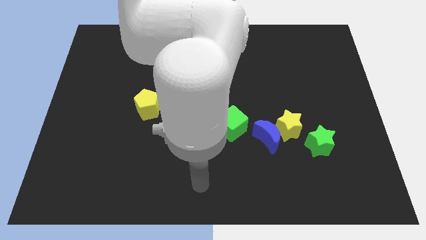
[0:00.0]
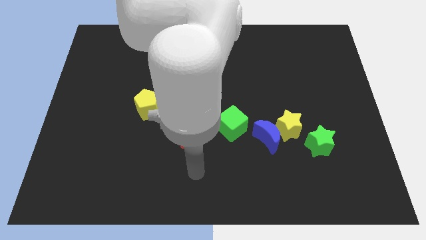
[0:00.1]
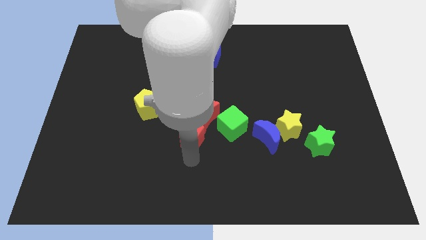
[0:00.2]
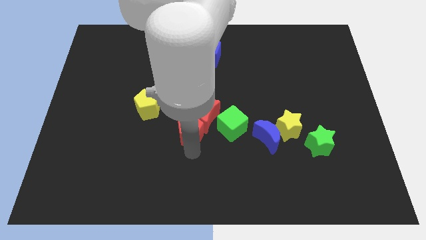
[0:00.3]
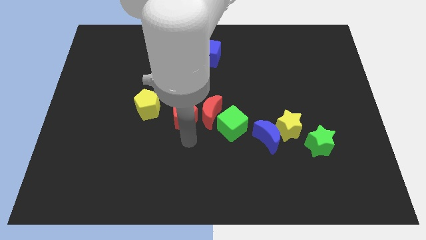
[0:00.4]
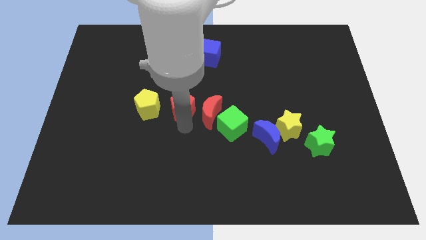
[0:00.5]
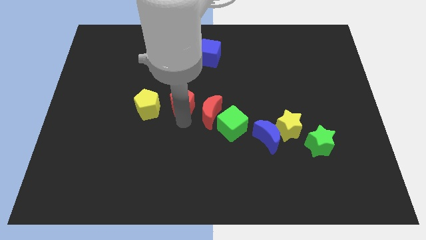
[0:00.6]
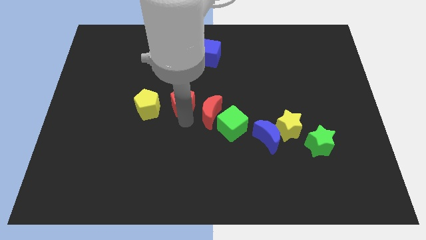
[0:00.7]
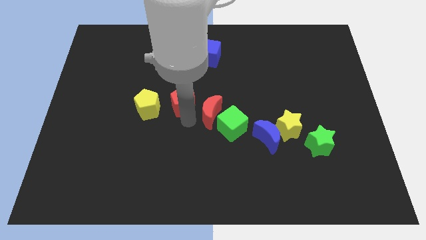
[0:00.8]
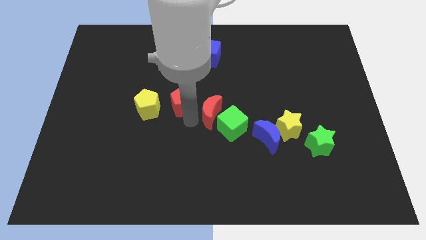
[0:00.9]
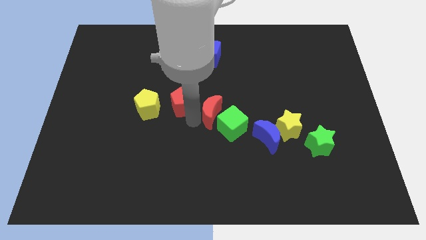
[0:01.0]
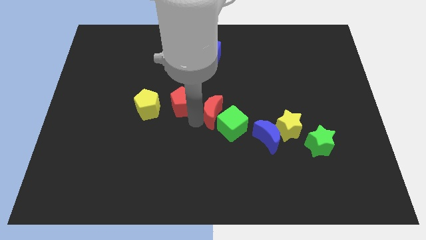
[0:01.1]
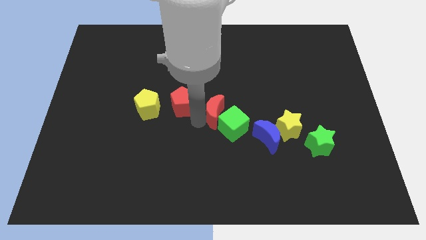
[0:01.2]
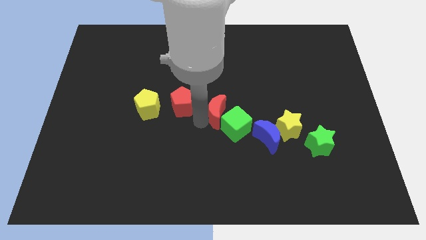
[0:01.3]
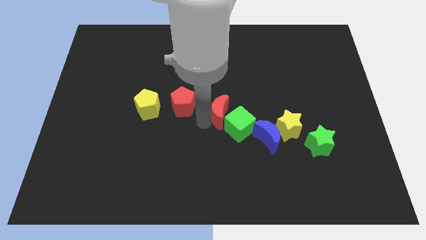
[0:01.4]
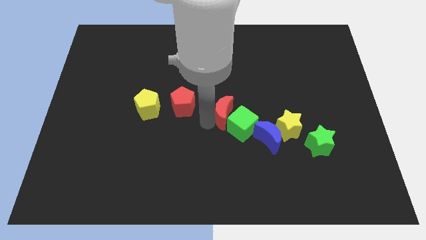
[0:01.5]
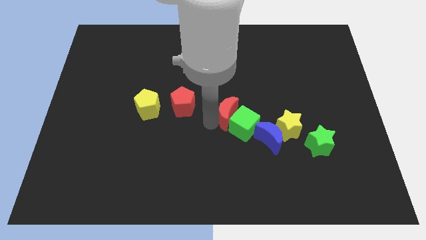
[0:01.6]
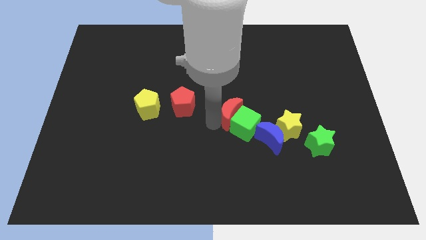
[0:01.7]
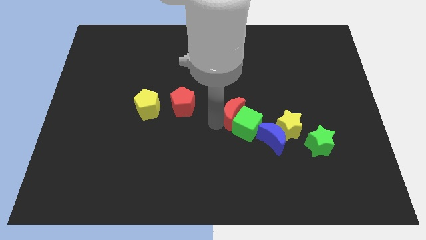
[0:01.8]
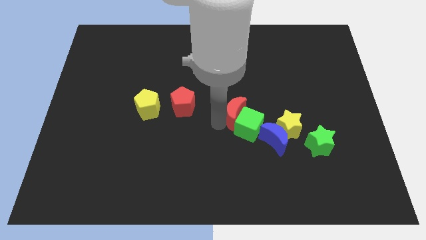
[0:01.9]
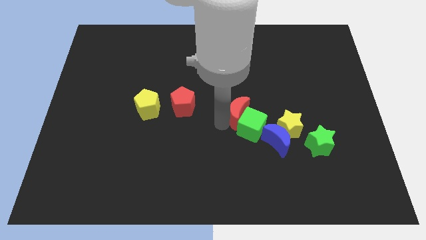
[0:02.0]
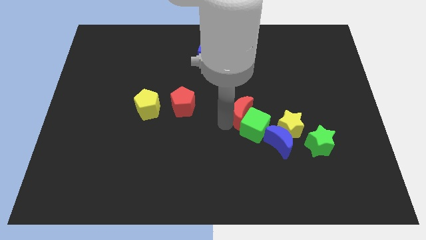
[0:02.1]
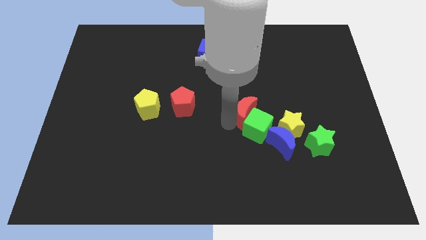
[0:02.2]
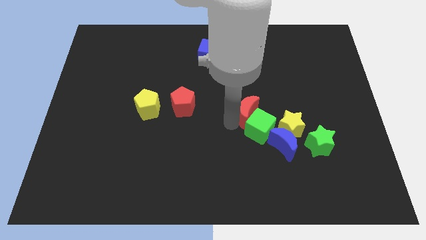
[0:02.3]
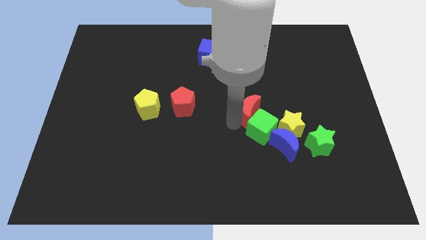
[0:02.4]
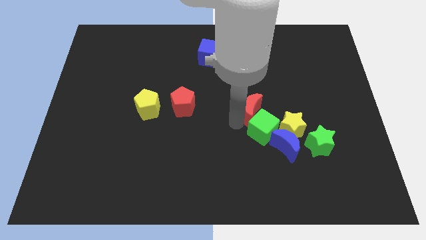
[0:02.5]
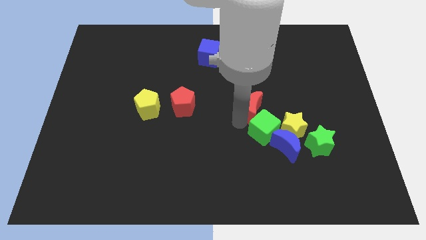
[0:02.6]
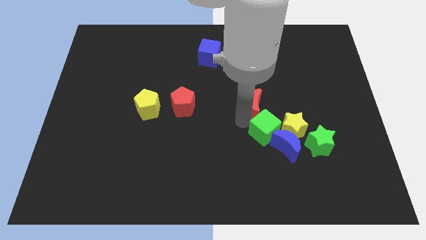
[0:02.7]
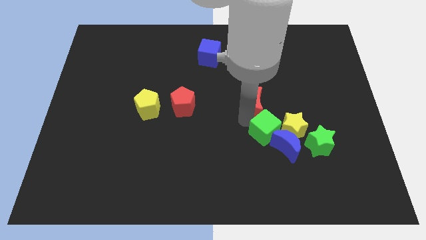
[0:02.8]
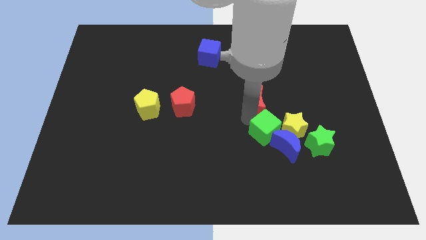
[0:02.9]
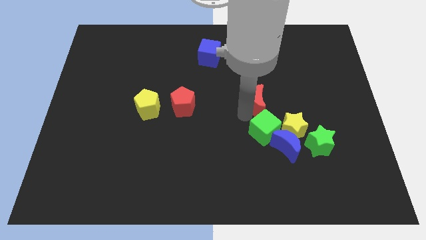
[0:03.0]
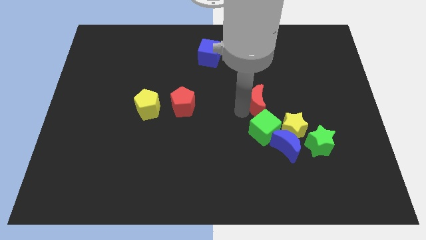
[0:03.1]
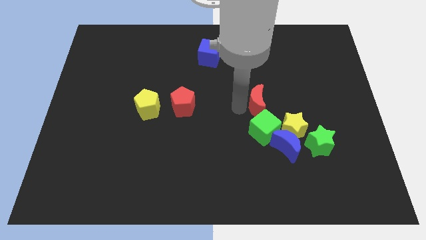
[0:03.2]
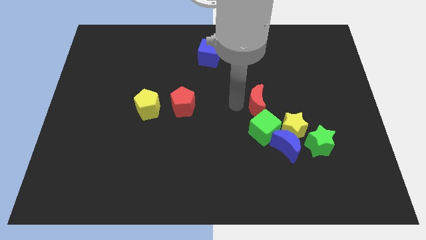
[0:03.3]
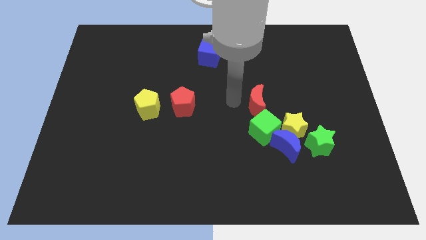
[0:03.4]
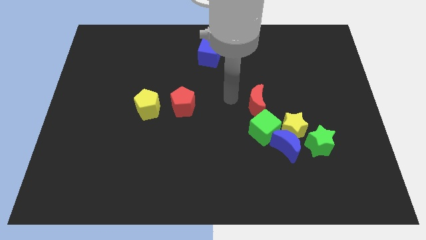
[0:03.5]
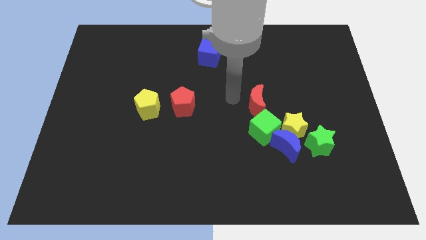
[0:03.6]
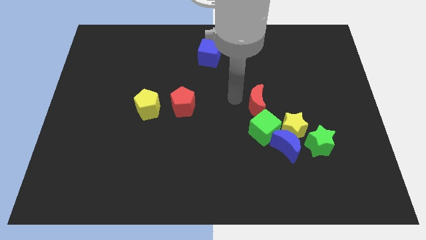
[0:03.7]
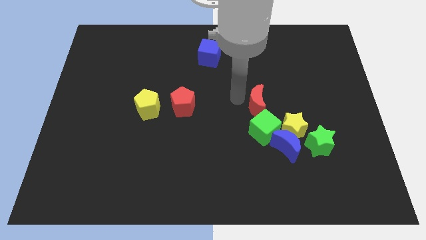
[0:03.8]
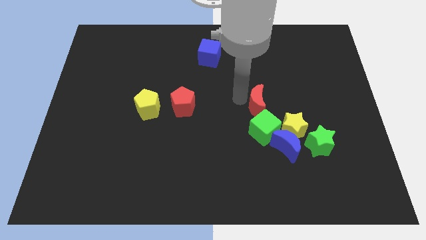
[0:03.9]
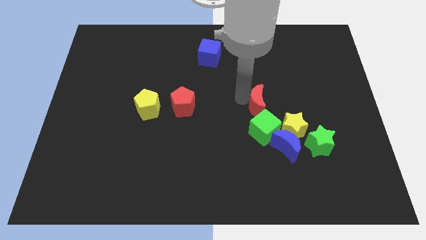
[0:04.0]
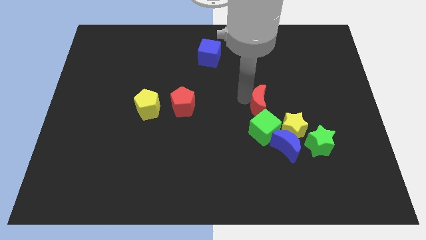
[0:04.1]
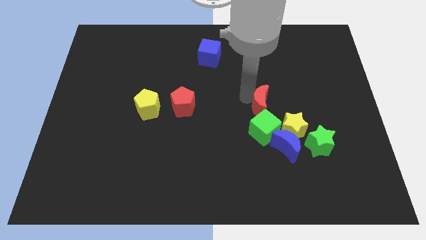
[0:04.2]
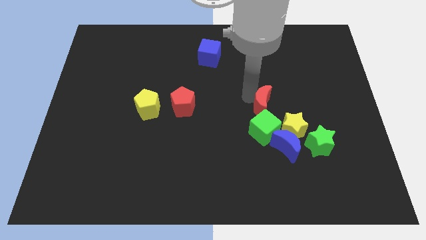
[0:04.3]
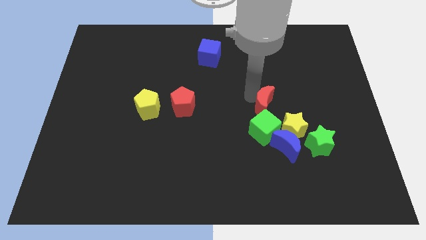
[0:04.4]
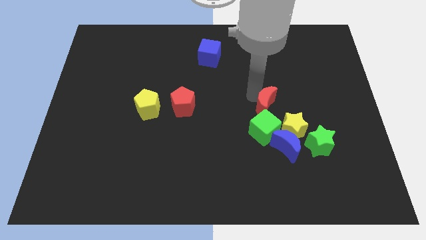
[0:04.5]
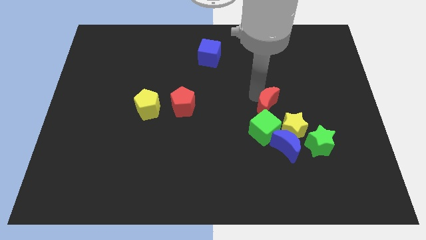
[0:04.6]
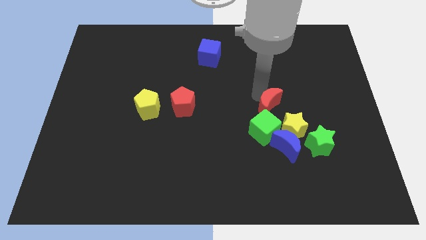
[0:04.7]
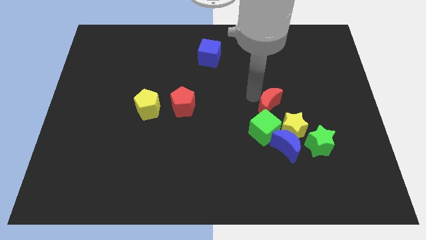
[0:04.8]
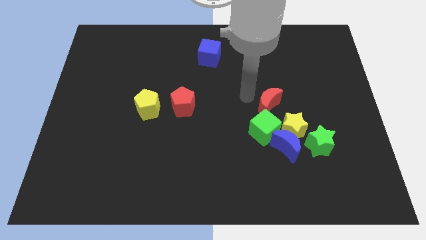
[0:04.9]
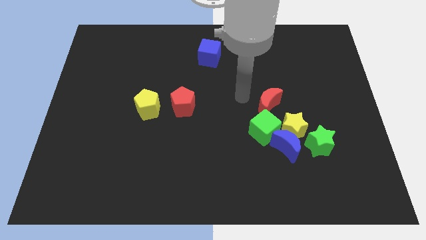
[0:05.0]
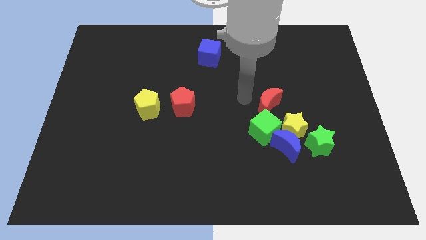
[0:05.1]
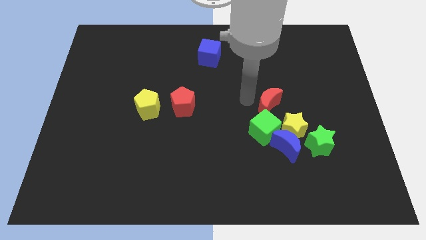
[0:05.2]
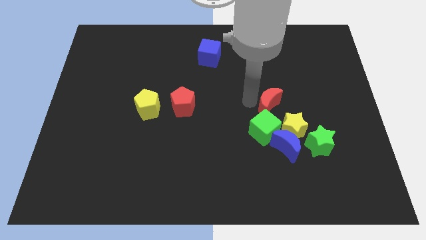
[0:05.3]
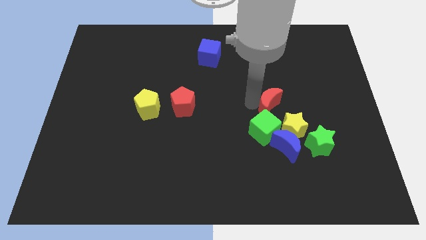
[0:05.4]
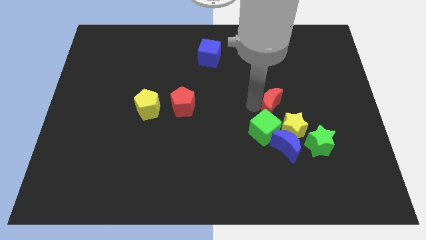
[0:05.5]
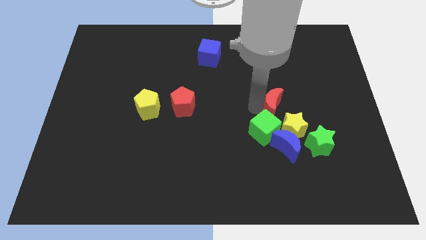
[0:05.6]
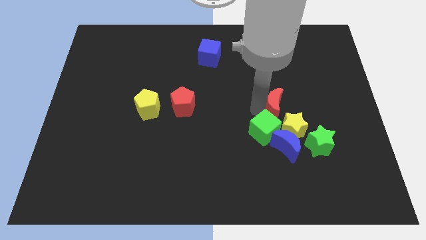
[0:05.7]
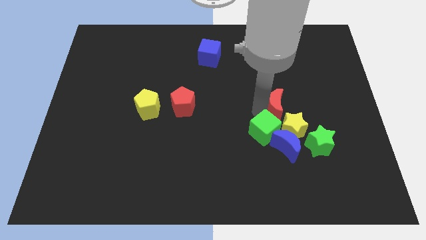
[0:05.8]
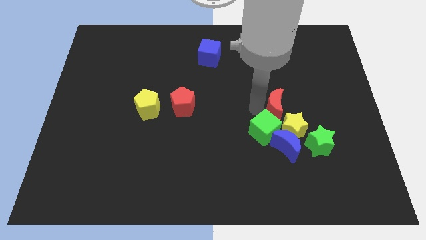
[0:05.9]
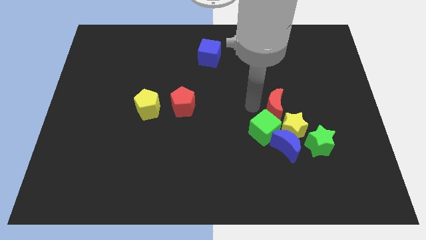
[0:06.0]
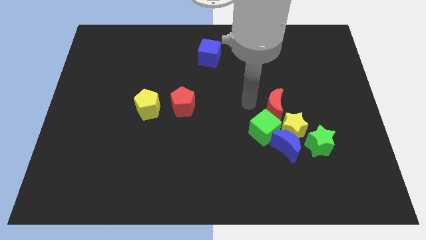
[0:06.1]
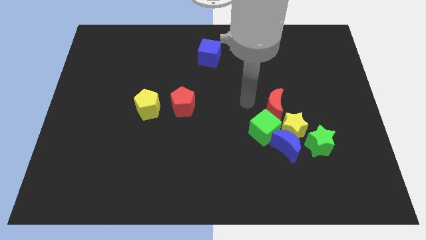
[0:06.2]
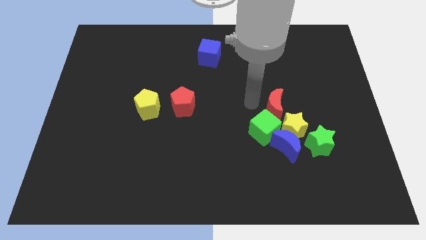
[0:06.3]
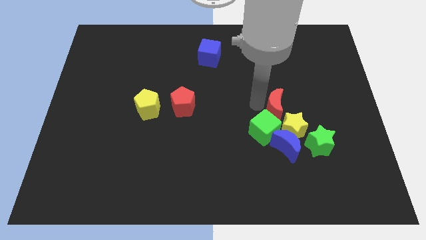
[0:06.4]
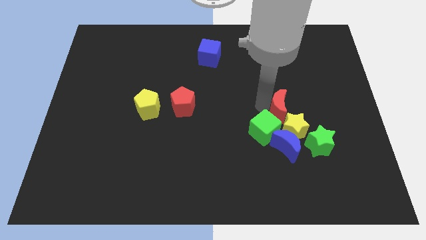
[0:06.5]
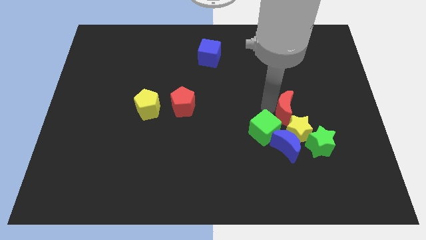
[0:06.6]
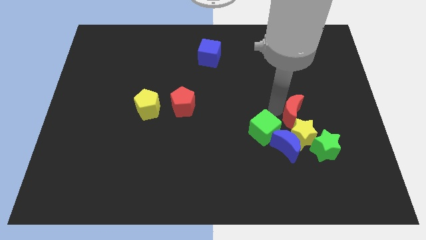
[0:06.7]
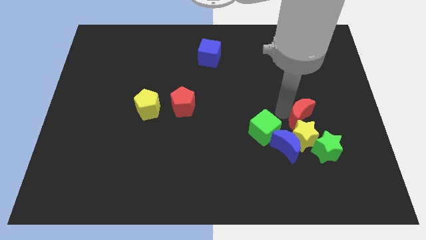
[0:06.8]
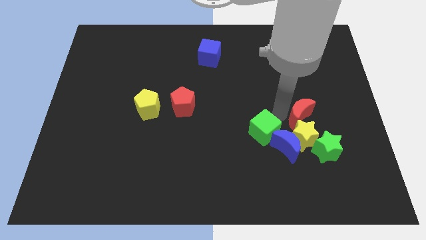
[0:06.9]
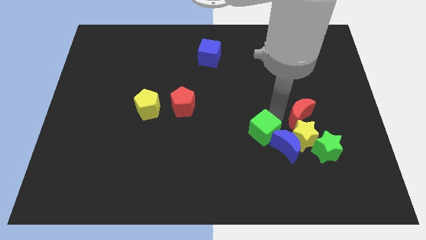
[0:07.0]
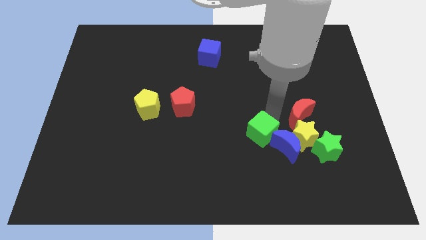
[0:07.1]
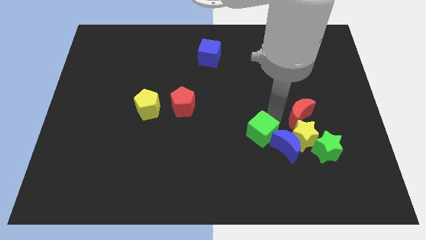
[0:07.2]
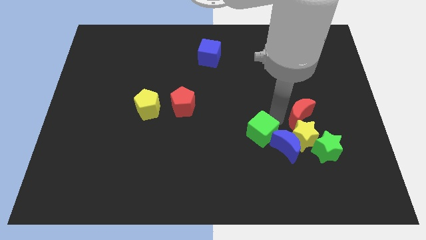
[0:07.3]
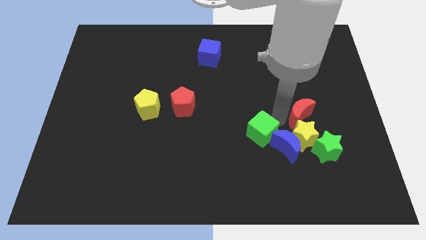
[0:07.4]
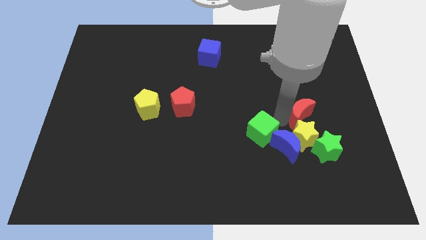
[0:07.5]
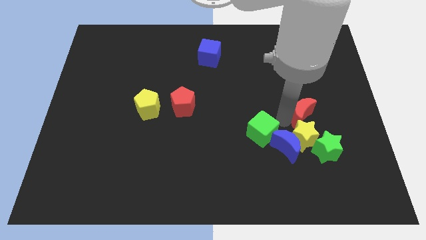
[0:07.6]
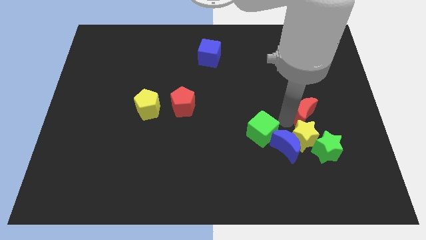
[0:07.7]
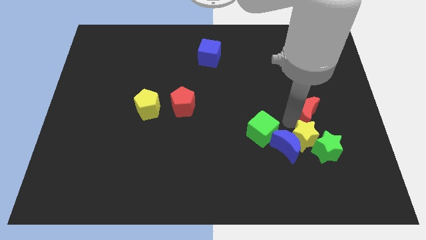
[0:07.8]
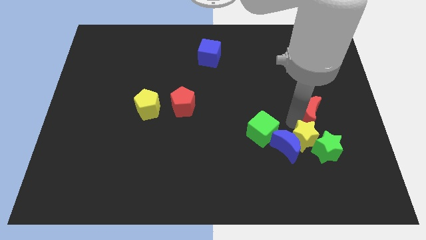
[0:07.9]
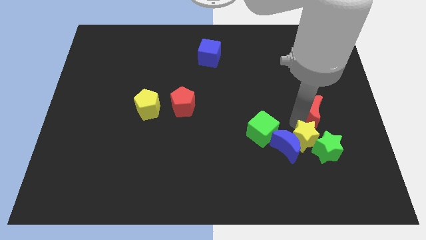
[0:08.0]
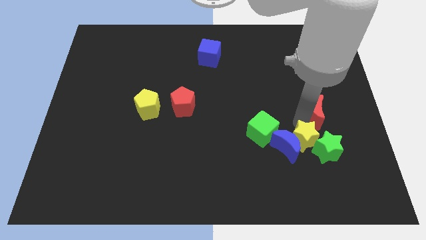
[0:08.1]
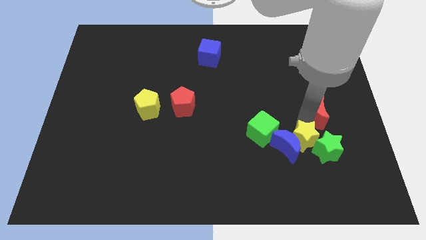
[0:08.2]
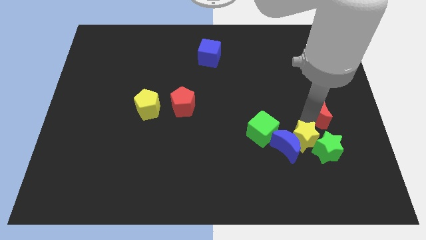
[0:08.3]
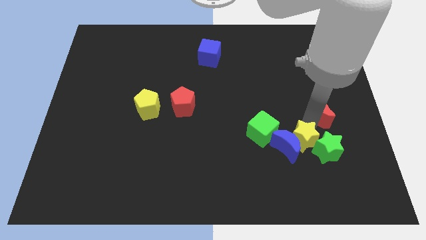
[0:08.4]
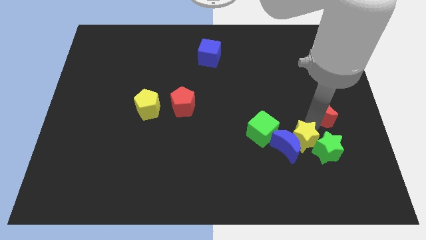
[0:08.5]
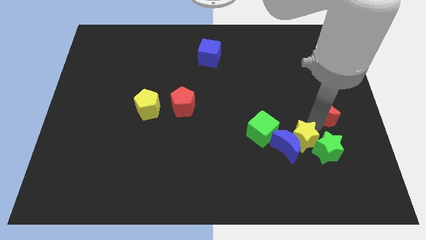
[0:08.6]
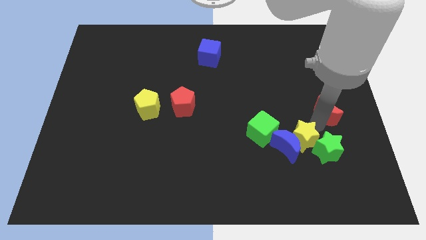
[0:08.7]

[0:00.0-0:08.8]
push the red moon to the center right
